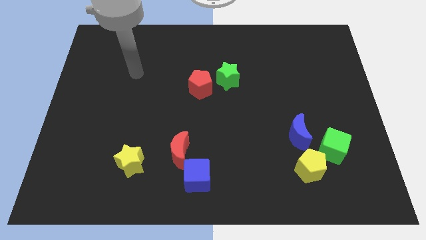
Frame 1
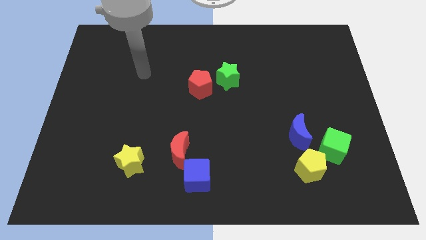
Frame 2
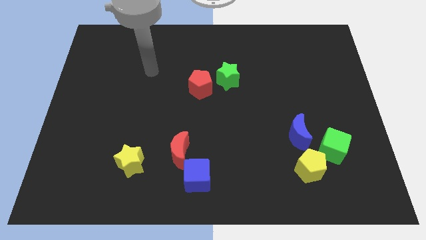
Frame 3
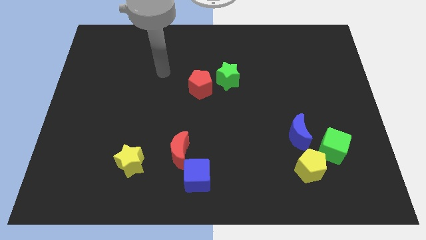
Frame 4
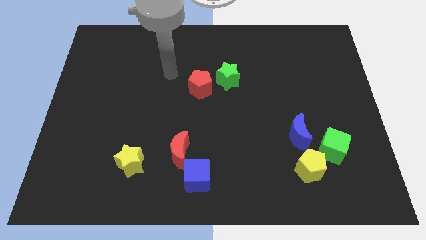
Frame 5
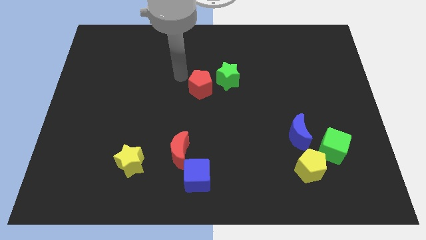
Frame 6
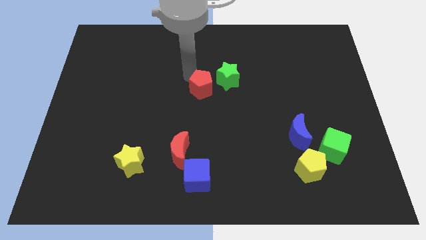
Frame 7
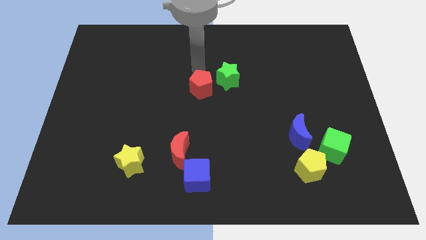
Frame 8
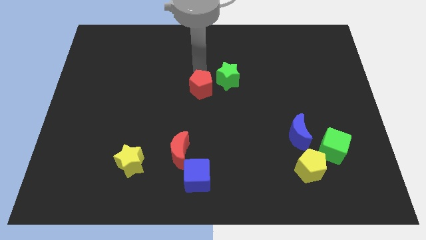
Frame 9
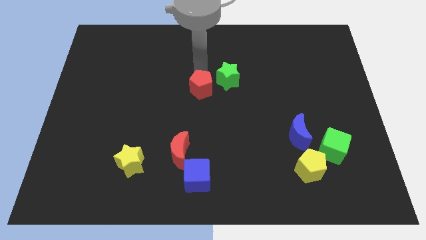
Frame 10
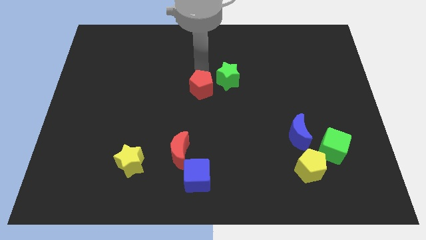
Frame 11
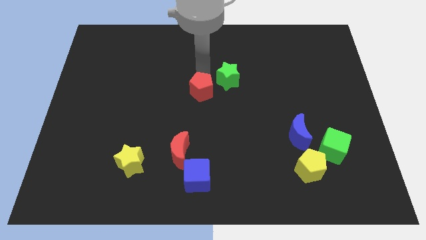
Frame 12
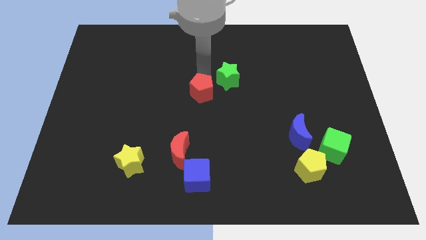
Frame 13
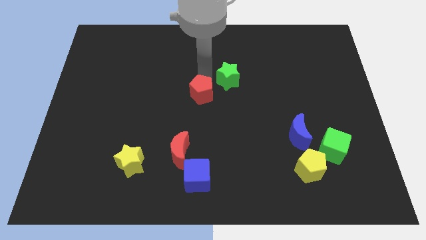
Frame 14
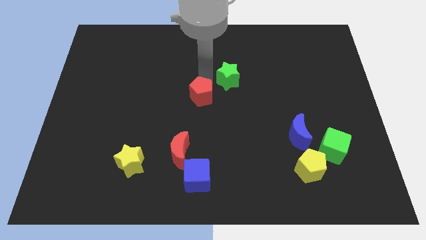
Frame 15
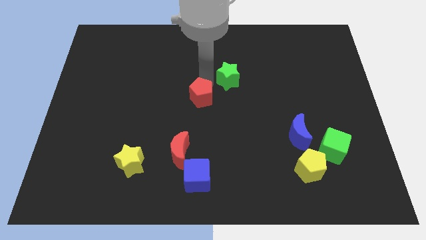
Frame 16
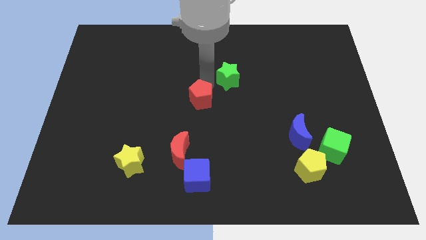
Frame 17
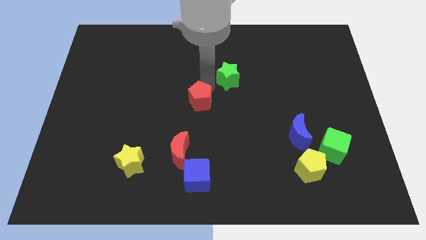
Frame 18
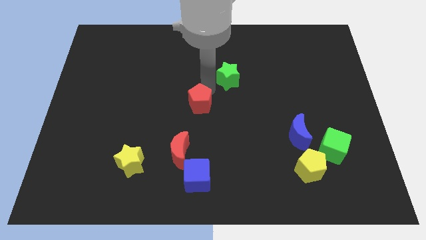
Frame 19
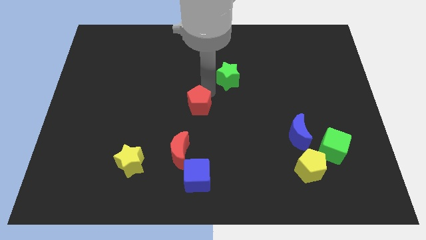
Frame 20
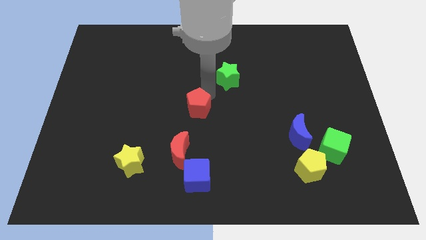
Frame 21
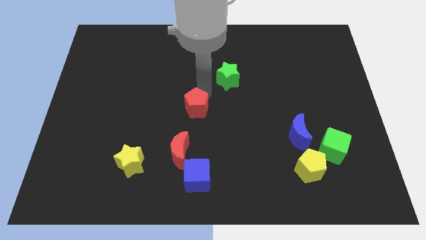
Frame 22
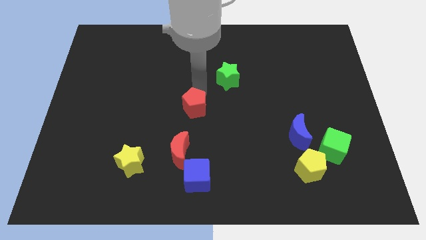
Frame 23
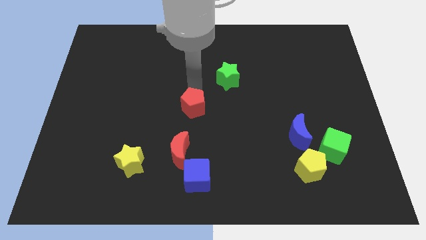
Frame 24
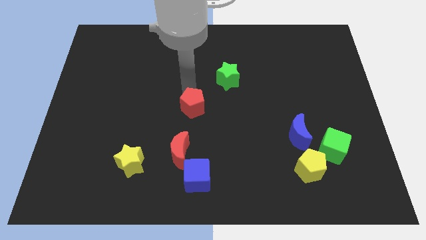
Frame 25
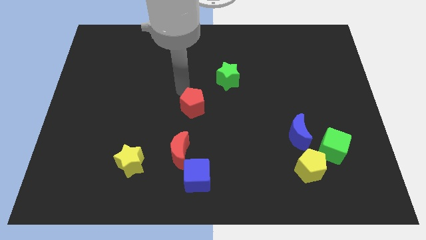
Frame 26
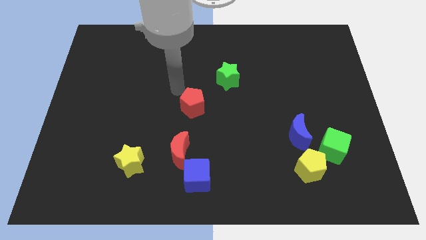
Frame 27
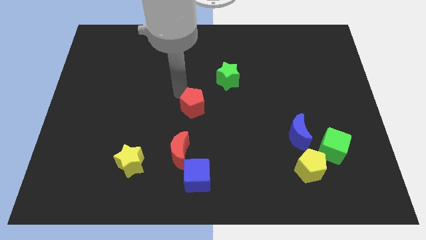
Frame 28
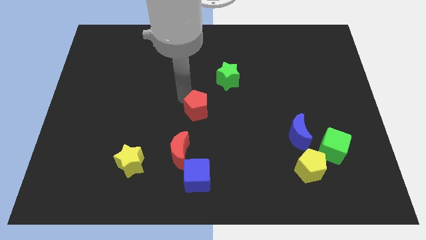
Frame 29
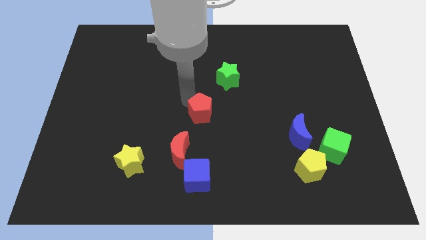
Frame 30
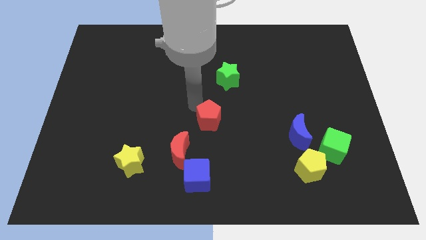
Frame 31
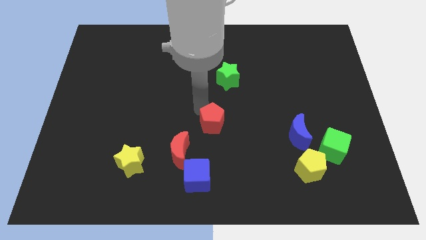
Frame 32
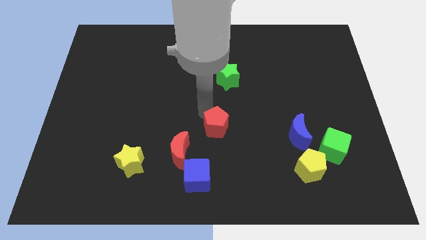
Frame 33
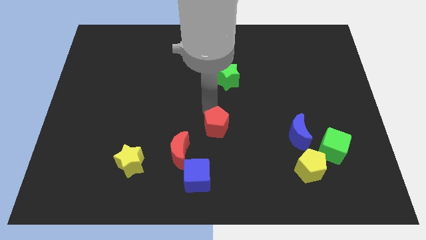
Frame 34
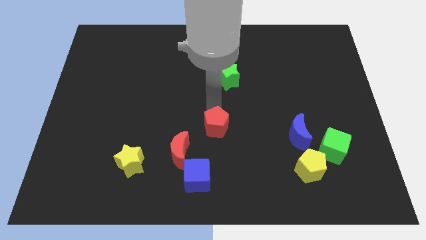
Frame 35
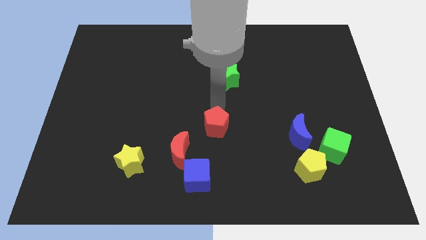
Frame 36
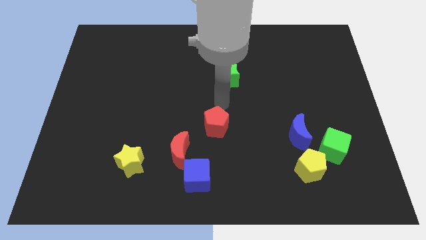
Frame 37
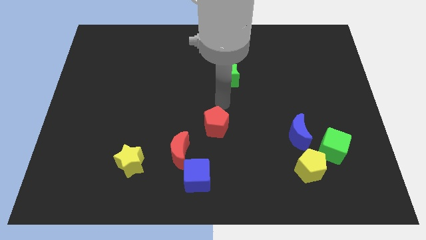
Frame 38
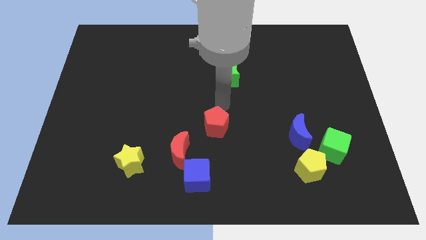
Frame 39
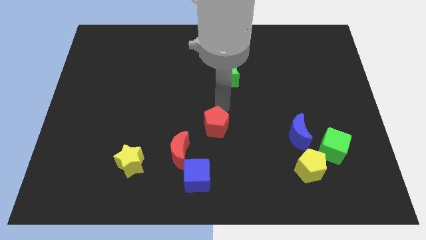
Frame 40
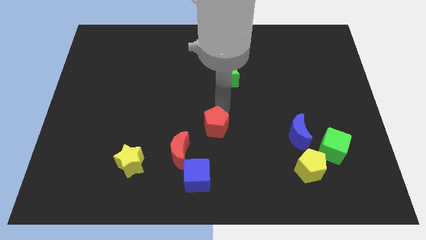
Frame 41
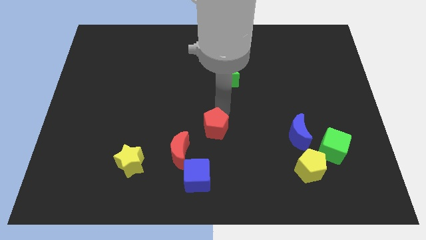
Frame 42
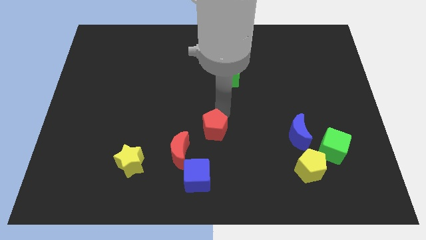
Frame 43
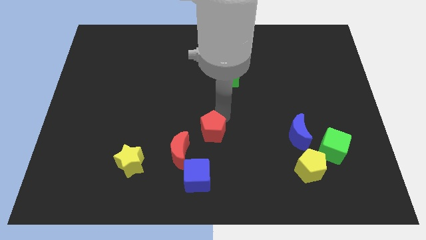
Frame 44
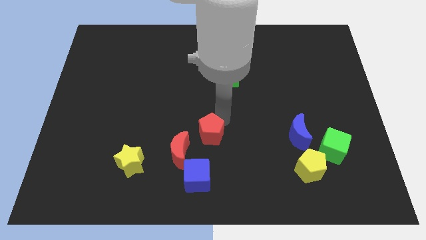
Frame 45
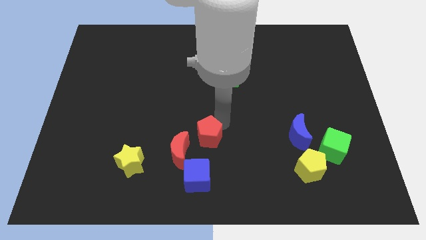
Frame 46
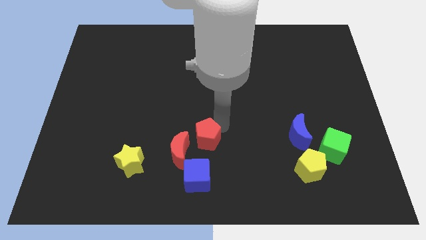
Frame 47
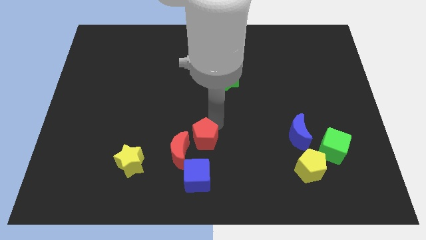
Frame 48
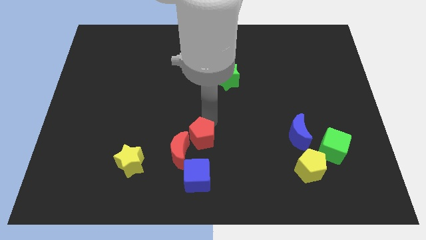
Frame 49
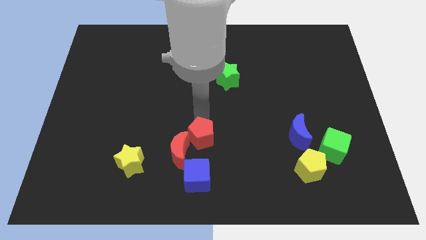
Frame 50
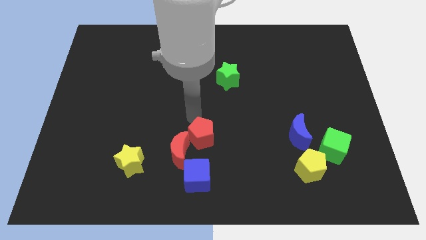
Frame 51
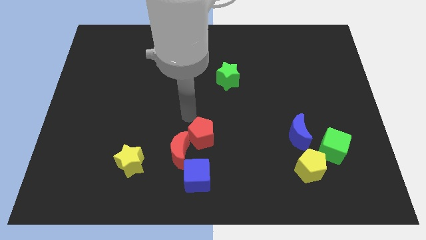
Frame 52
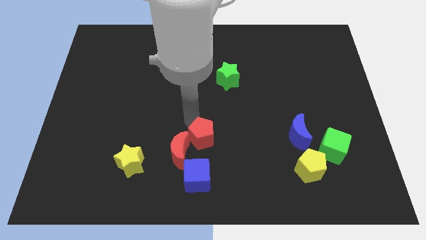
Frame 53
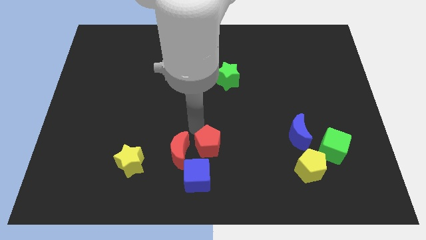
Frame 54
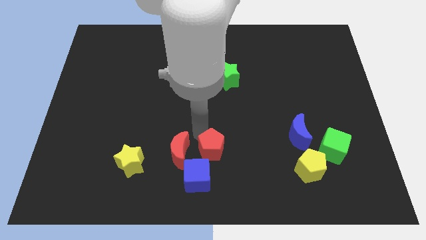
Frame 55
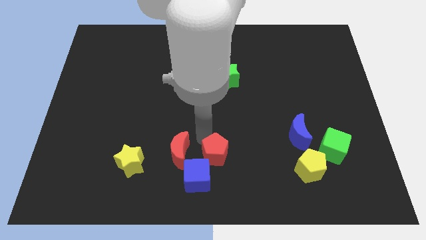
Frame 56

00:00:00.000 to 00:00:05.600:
push the red pentagon to the bottom

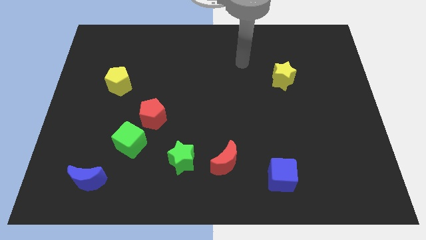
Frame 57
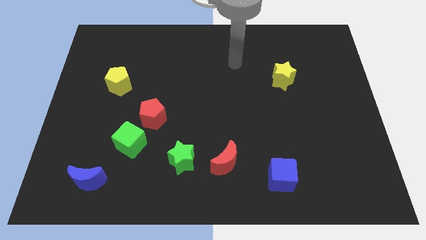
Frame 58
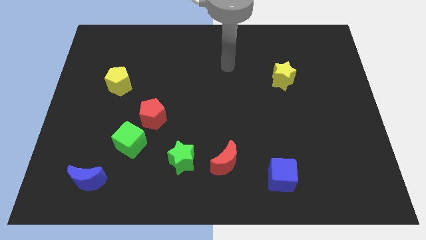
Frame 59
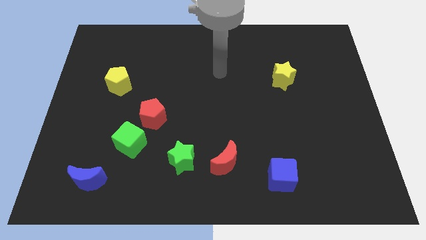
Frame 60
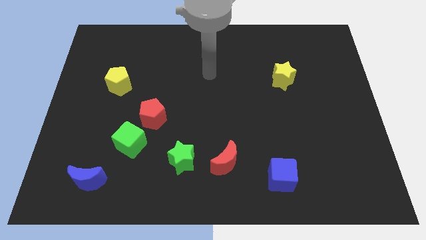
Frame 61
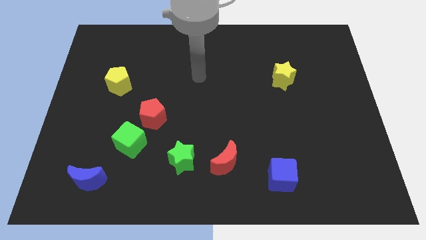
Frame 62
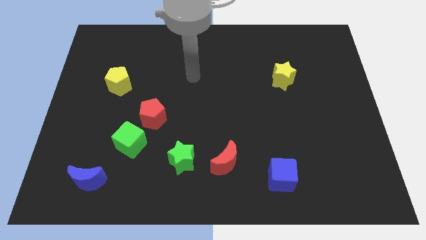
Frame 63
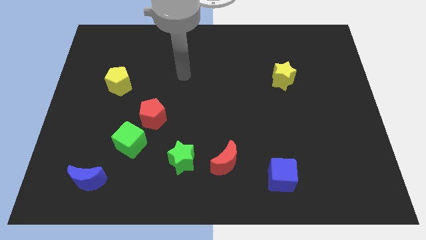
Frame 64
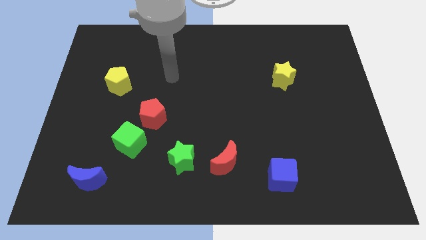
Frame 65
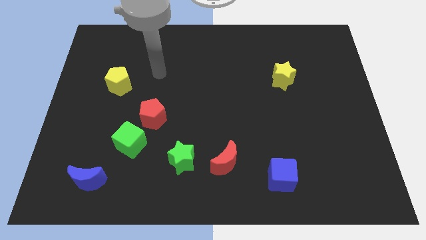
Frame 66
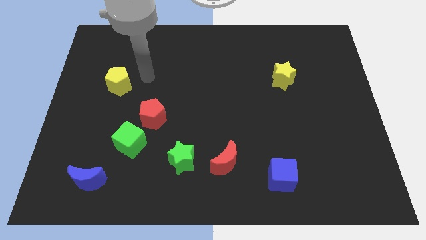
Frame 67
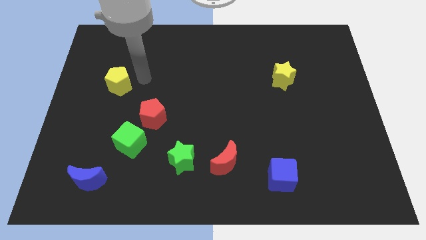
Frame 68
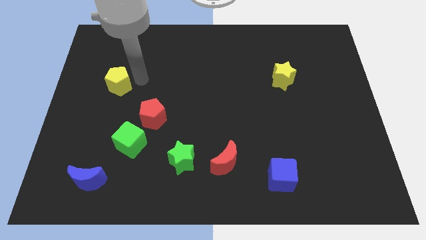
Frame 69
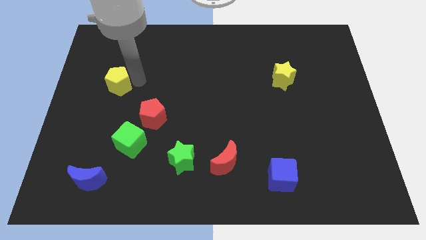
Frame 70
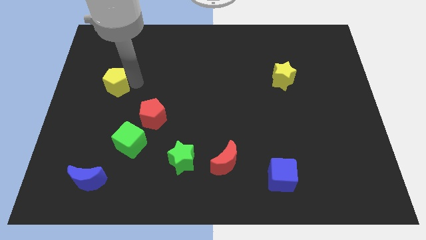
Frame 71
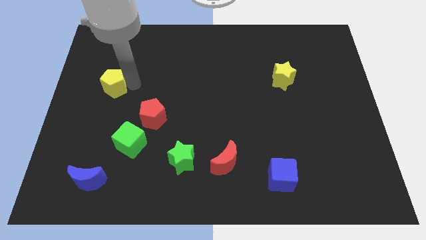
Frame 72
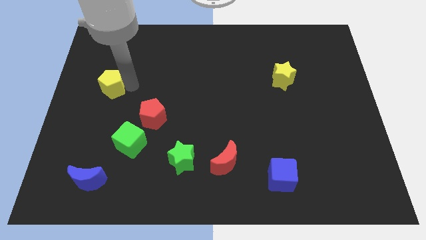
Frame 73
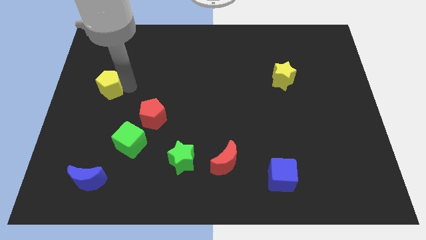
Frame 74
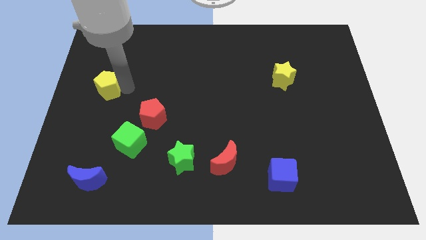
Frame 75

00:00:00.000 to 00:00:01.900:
put the yellow pentagon to the left side of the board
